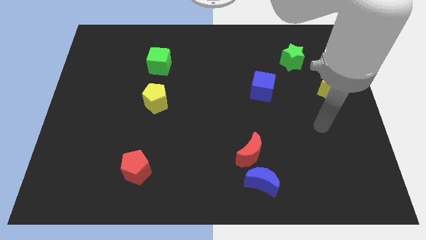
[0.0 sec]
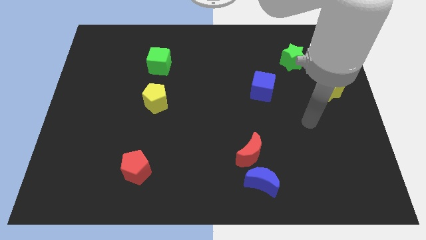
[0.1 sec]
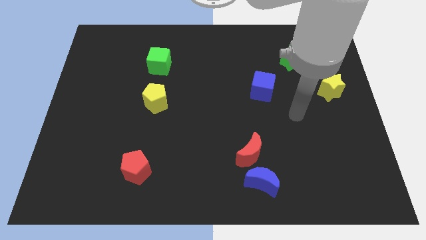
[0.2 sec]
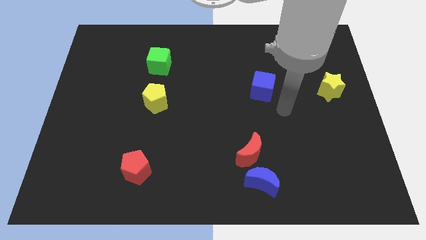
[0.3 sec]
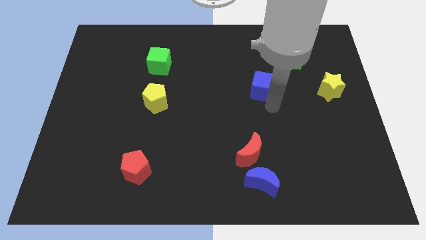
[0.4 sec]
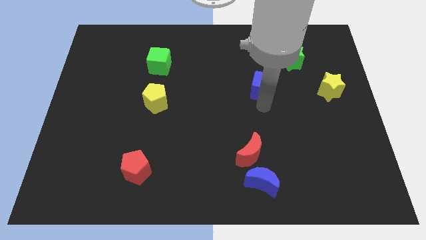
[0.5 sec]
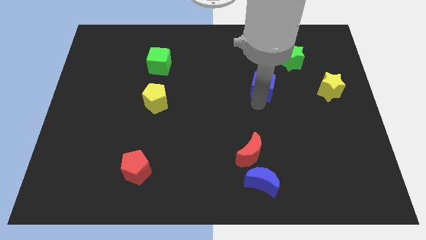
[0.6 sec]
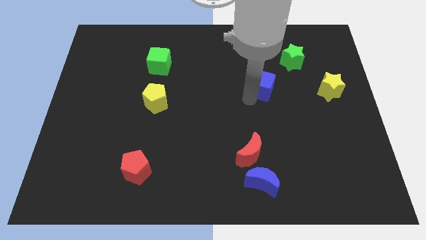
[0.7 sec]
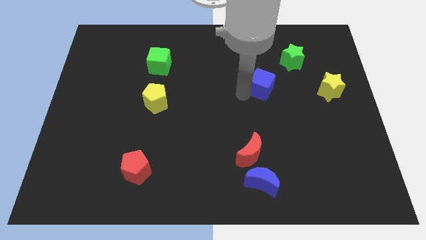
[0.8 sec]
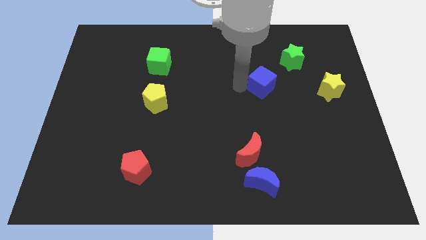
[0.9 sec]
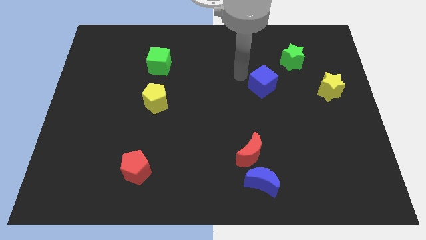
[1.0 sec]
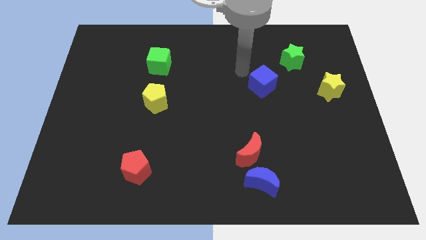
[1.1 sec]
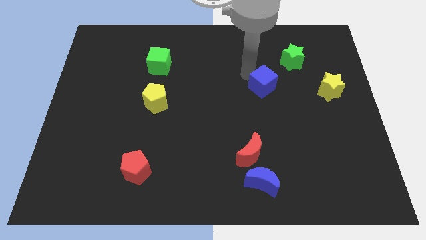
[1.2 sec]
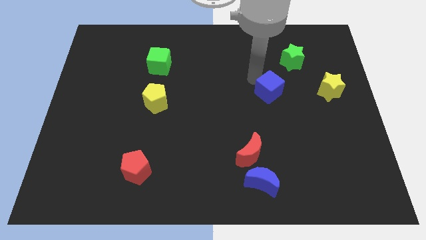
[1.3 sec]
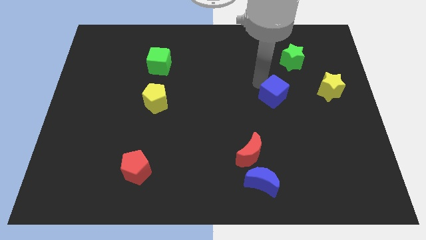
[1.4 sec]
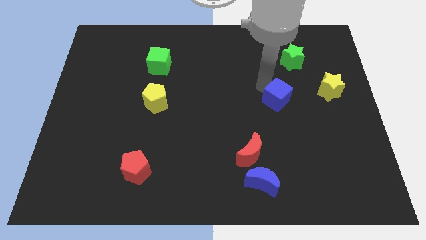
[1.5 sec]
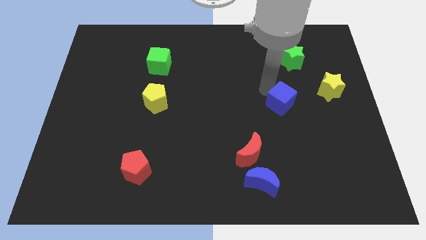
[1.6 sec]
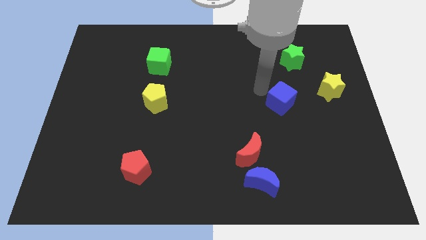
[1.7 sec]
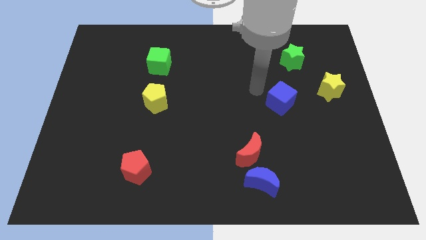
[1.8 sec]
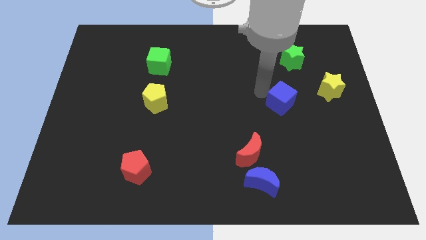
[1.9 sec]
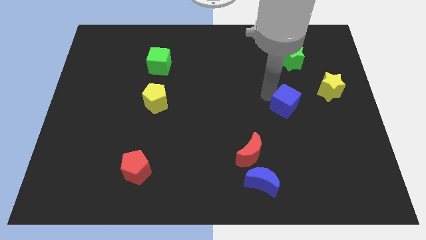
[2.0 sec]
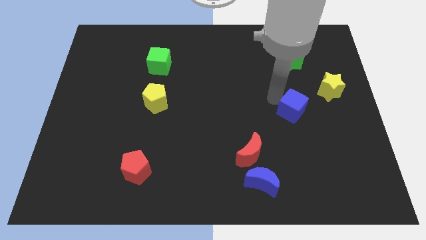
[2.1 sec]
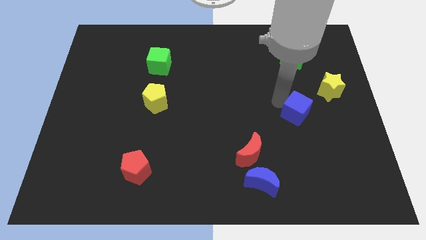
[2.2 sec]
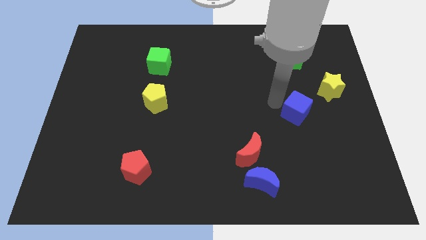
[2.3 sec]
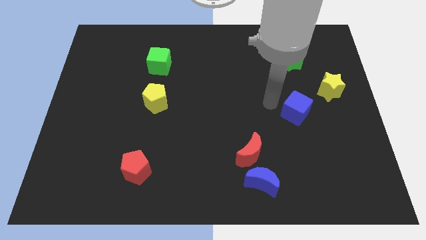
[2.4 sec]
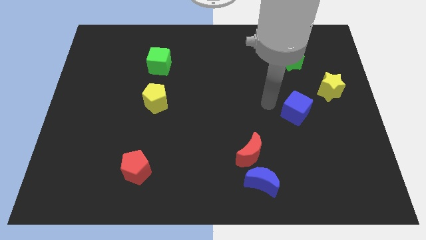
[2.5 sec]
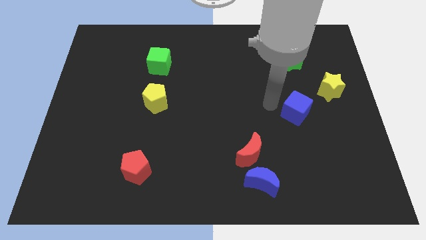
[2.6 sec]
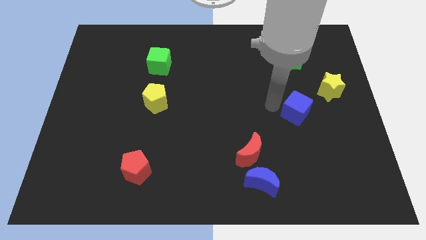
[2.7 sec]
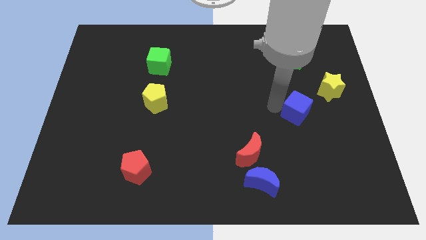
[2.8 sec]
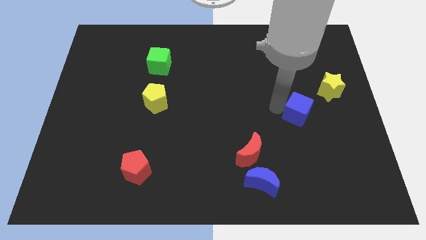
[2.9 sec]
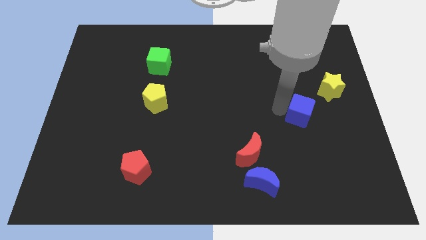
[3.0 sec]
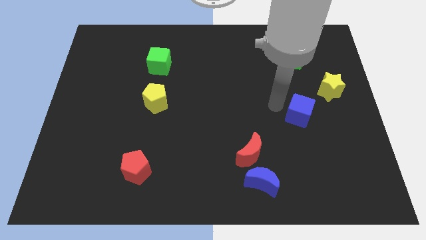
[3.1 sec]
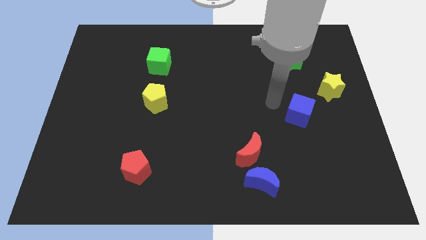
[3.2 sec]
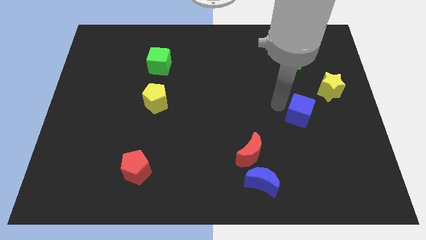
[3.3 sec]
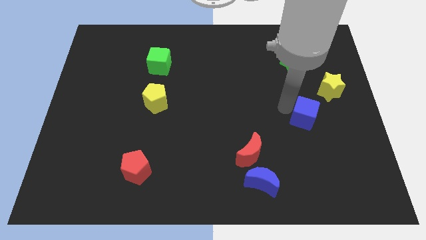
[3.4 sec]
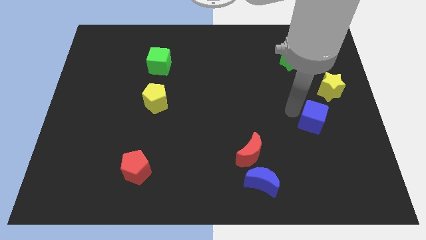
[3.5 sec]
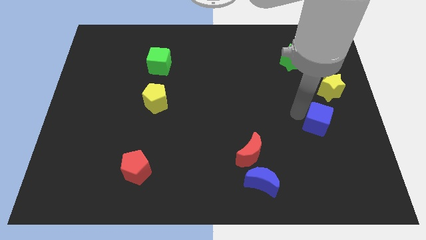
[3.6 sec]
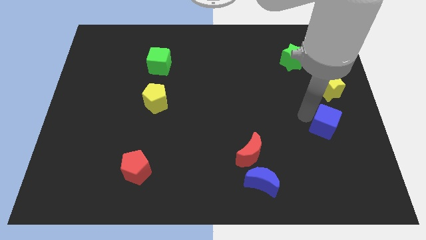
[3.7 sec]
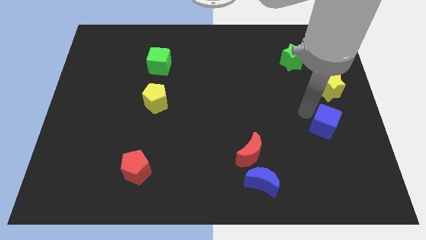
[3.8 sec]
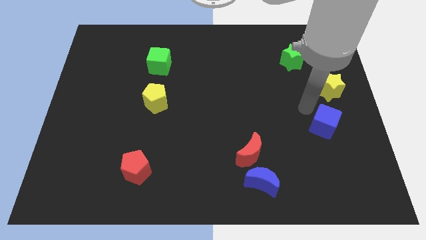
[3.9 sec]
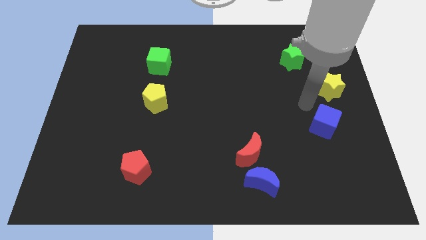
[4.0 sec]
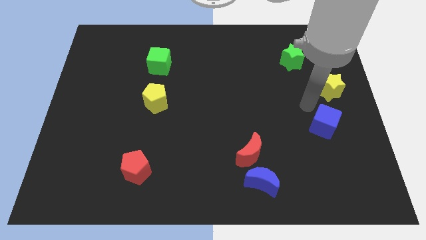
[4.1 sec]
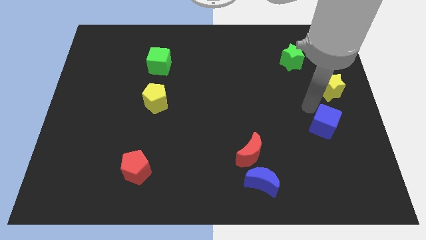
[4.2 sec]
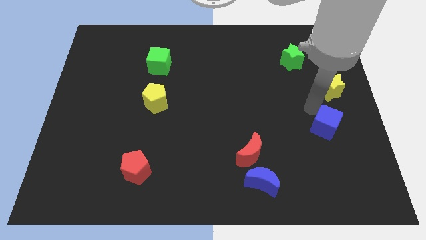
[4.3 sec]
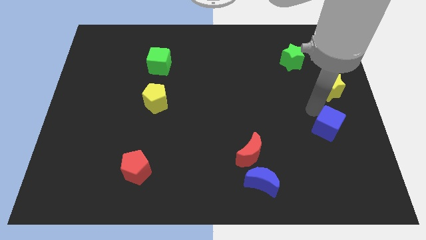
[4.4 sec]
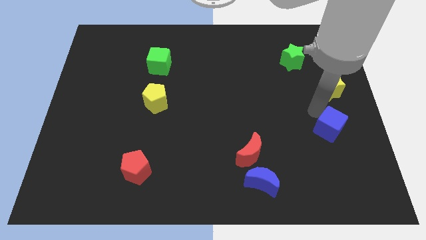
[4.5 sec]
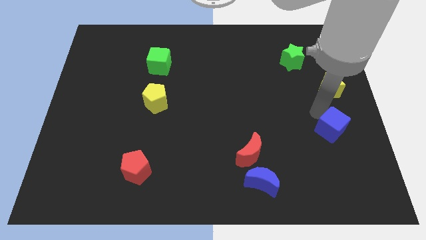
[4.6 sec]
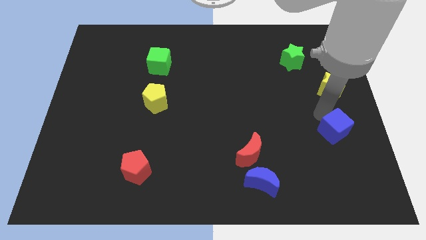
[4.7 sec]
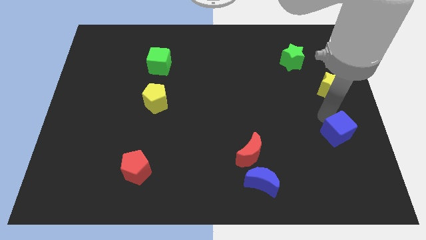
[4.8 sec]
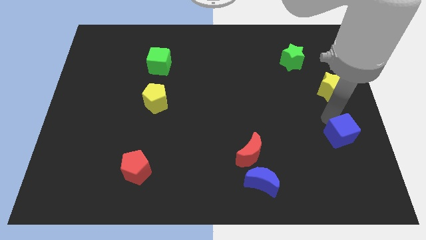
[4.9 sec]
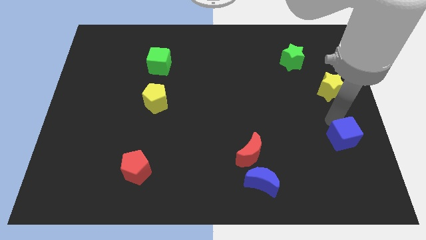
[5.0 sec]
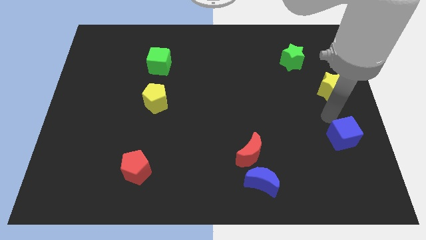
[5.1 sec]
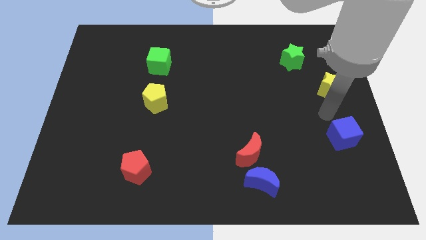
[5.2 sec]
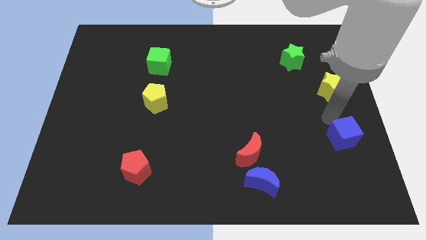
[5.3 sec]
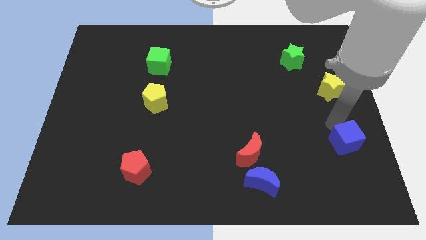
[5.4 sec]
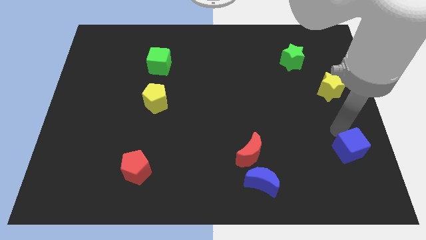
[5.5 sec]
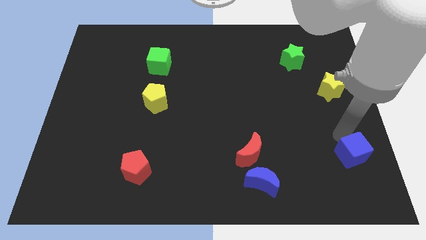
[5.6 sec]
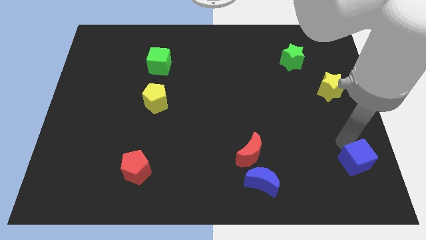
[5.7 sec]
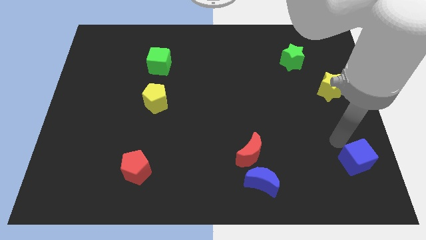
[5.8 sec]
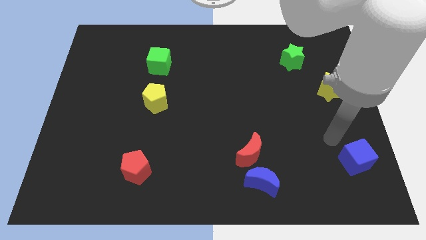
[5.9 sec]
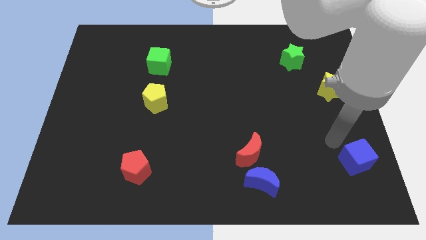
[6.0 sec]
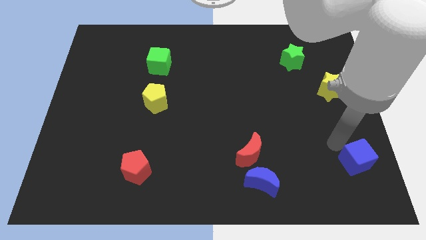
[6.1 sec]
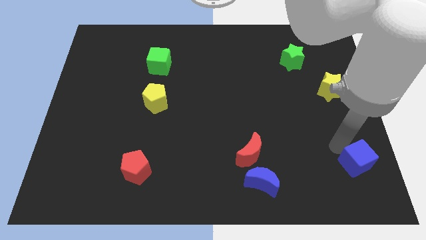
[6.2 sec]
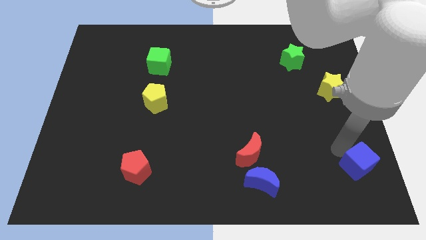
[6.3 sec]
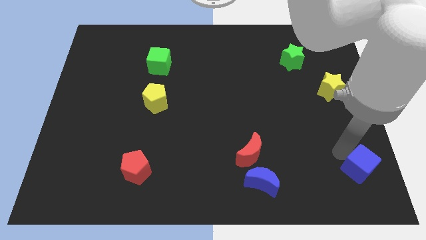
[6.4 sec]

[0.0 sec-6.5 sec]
push the blue cube to the lower right corner

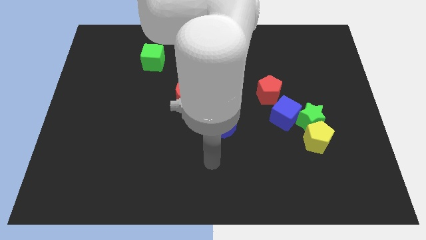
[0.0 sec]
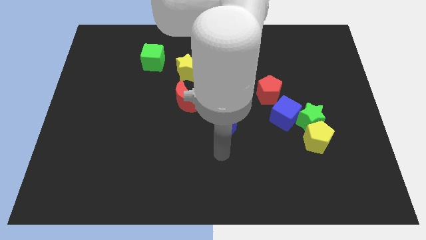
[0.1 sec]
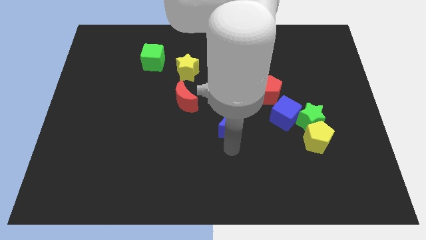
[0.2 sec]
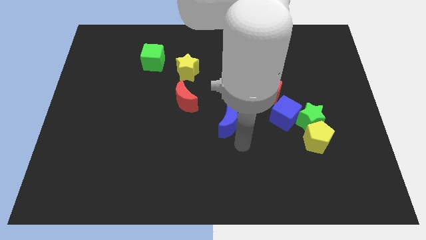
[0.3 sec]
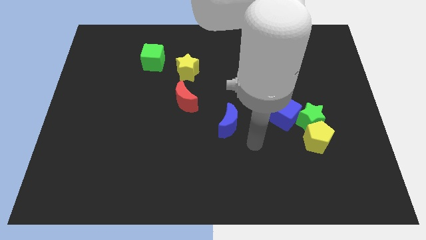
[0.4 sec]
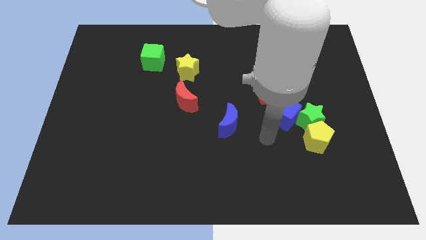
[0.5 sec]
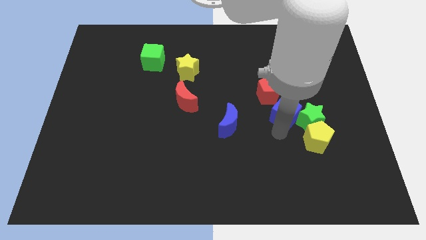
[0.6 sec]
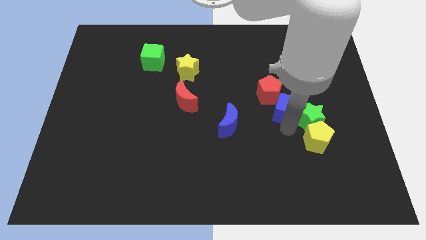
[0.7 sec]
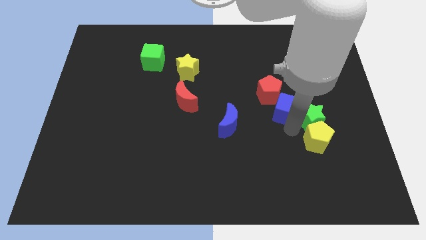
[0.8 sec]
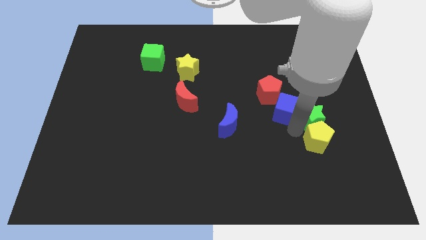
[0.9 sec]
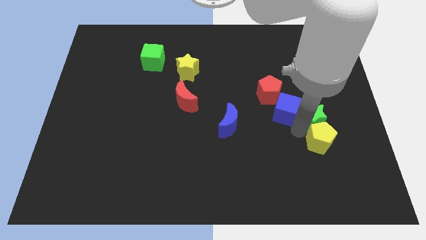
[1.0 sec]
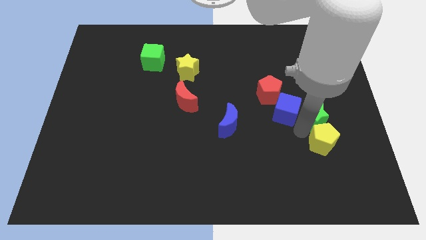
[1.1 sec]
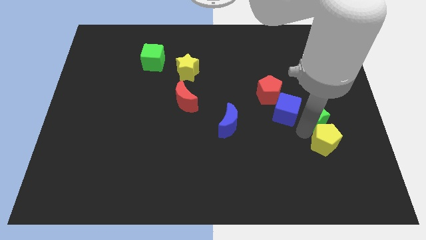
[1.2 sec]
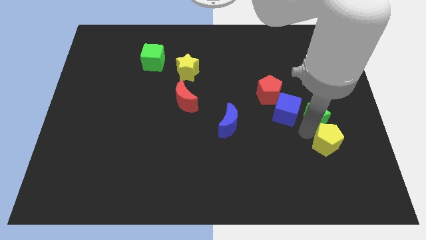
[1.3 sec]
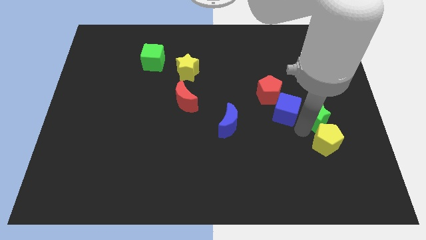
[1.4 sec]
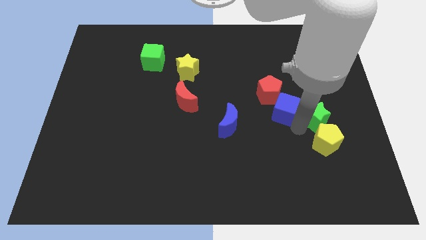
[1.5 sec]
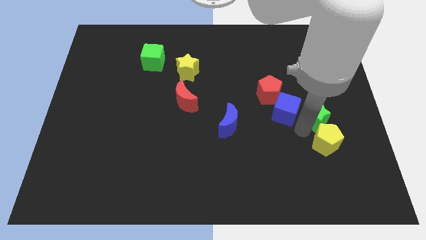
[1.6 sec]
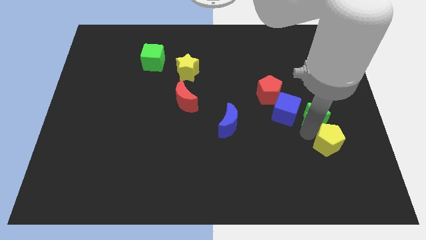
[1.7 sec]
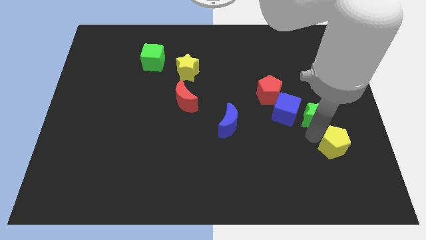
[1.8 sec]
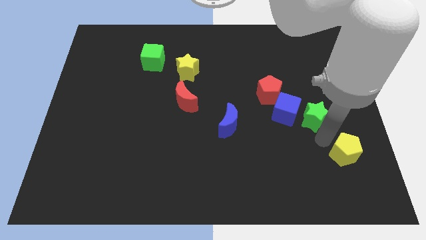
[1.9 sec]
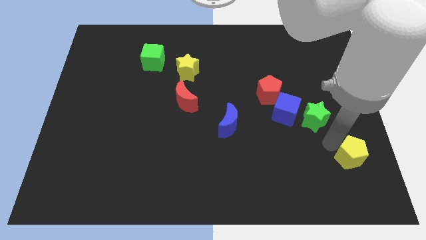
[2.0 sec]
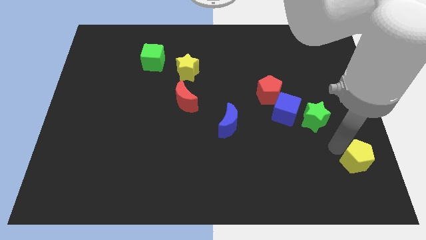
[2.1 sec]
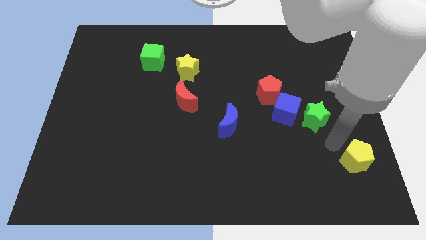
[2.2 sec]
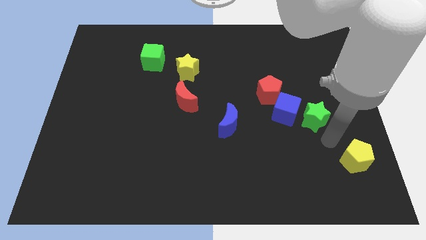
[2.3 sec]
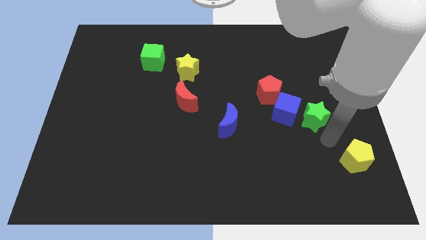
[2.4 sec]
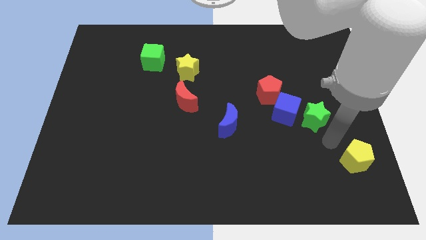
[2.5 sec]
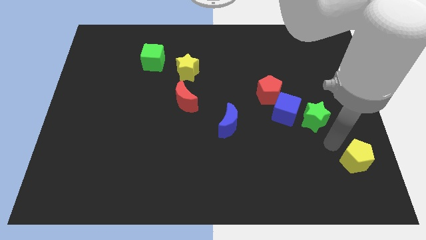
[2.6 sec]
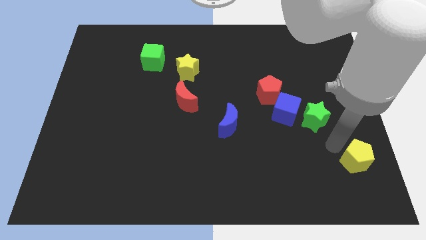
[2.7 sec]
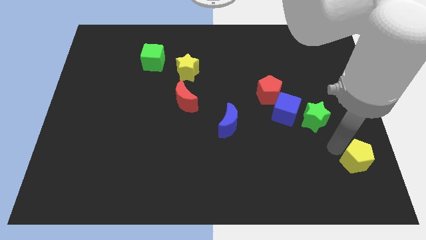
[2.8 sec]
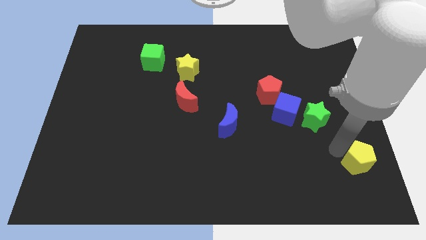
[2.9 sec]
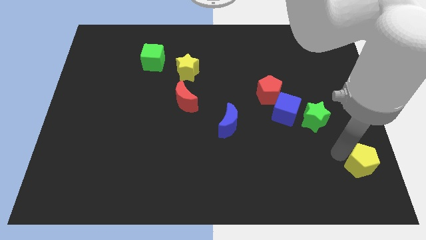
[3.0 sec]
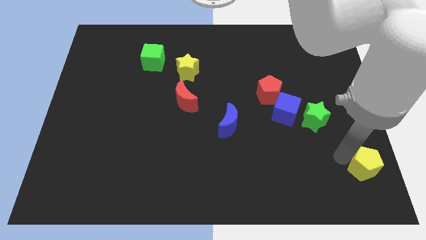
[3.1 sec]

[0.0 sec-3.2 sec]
move the yellow pentagon to the lower right corner
